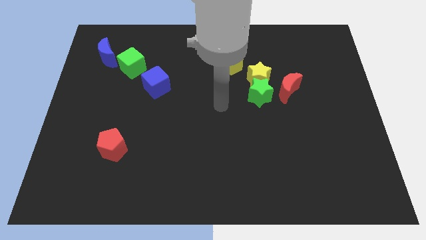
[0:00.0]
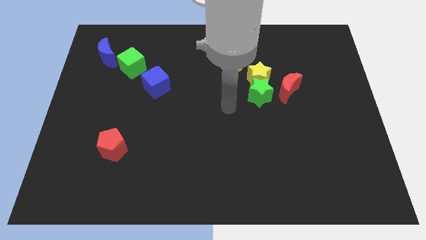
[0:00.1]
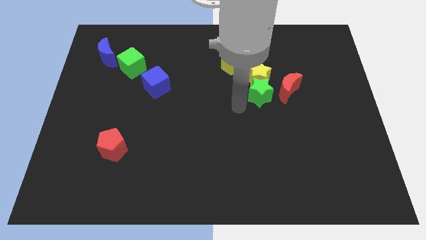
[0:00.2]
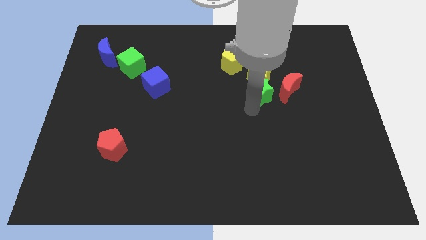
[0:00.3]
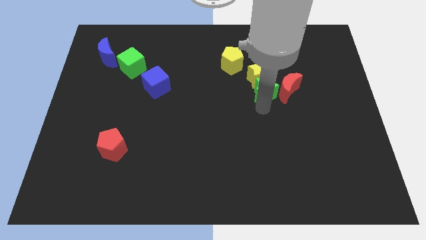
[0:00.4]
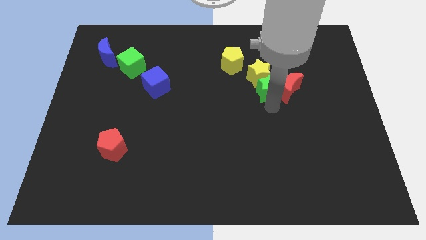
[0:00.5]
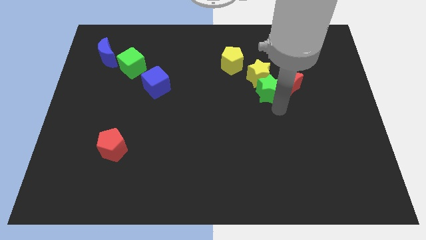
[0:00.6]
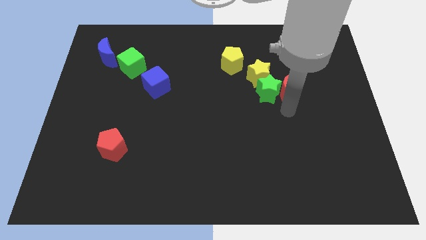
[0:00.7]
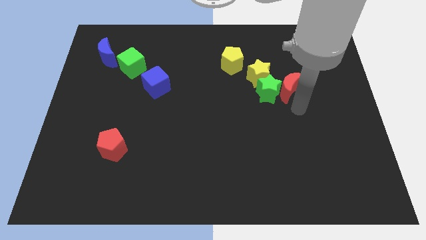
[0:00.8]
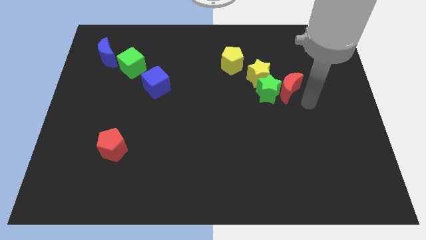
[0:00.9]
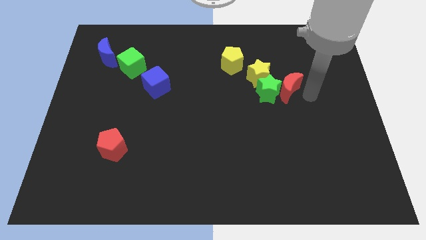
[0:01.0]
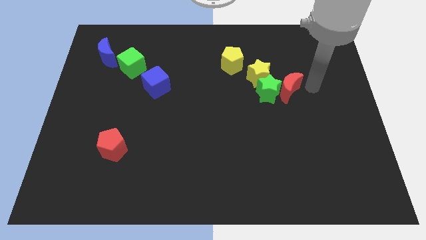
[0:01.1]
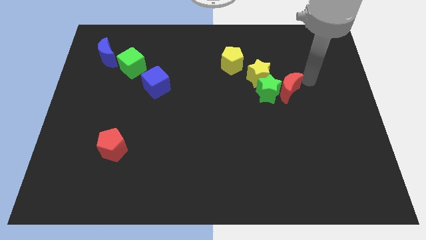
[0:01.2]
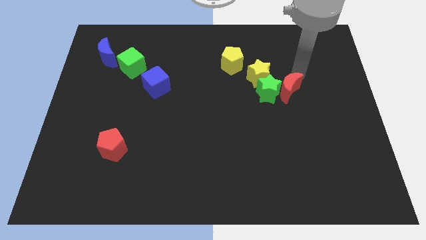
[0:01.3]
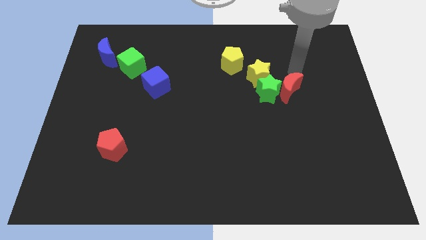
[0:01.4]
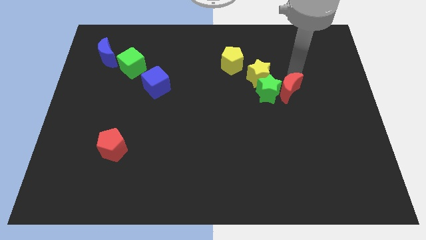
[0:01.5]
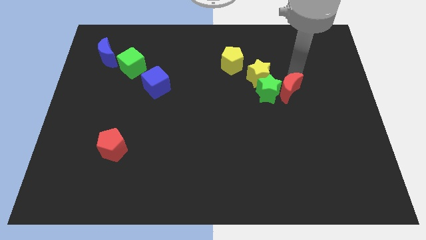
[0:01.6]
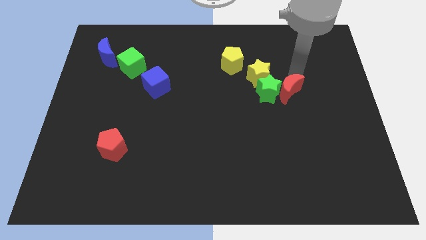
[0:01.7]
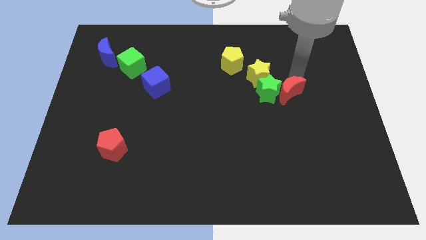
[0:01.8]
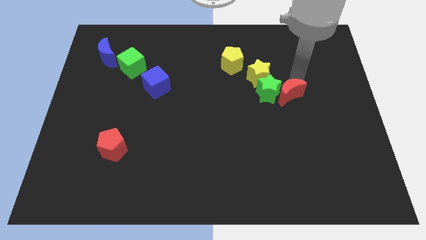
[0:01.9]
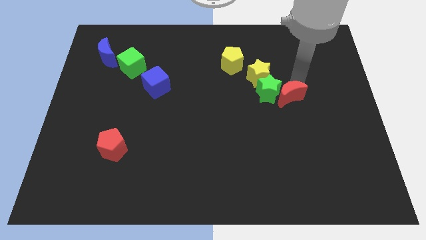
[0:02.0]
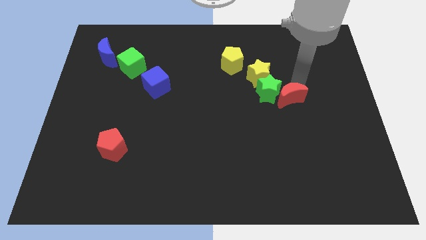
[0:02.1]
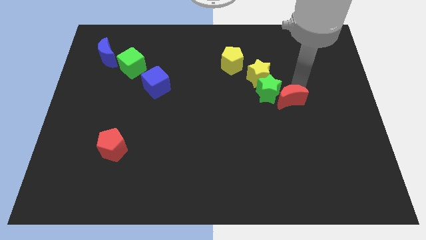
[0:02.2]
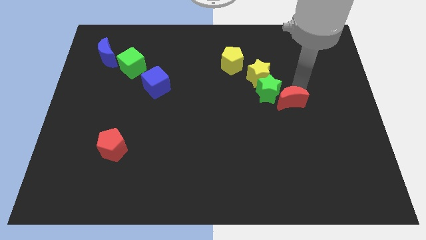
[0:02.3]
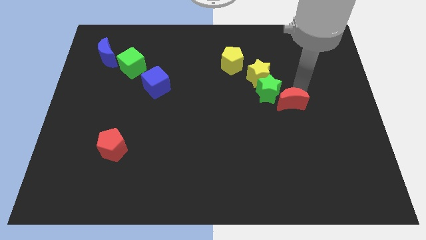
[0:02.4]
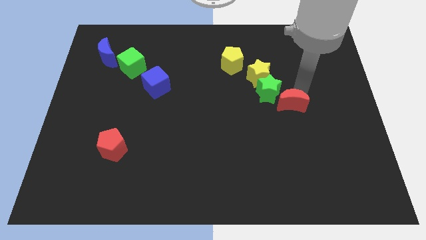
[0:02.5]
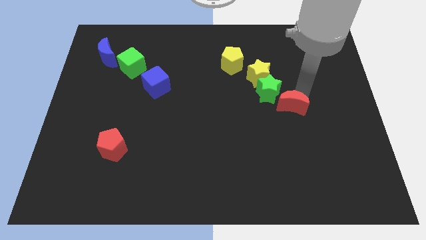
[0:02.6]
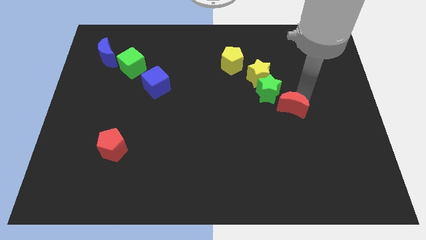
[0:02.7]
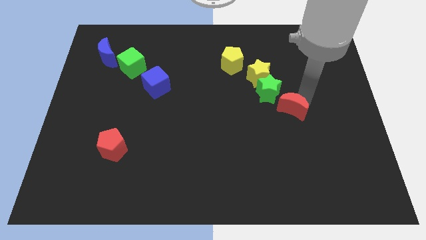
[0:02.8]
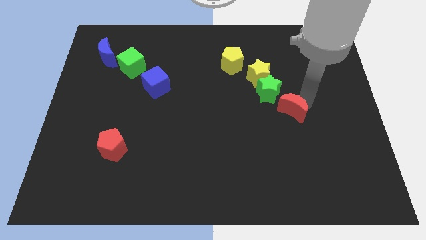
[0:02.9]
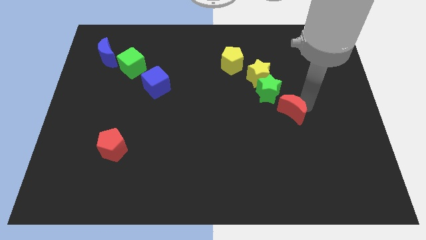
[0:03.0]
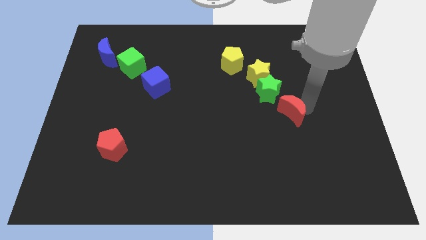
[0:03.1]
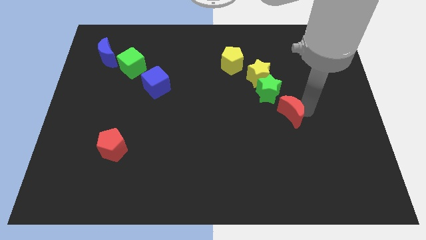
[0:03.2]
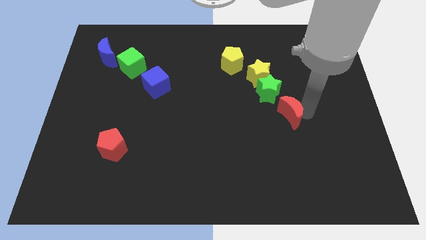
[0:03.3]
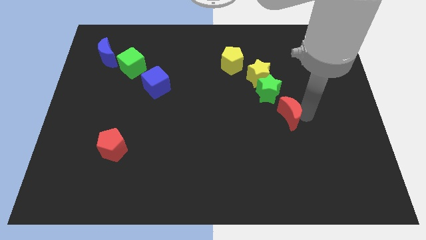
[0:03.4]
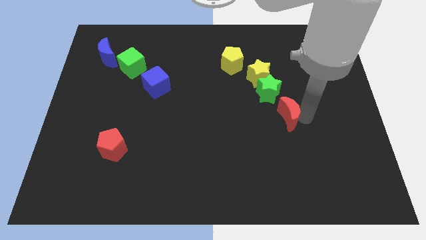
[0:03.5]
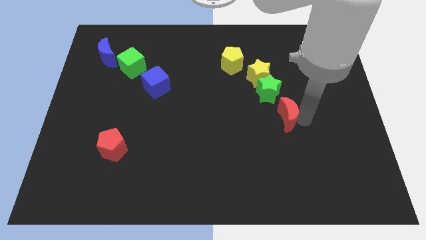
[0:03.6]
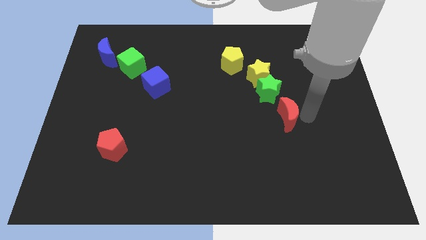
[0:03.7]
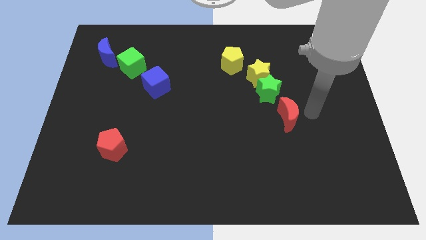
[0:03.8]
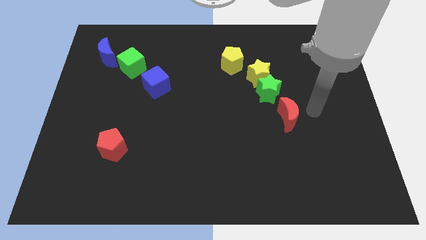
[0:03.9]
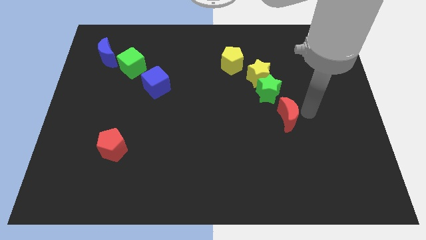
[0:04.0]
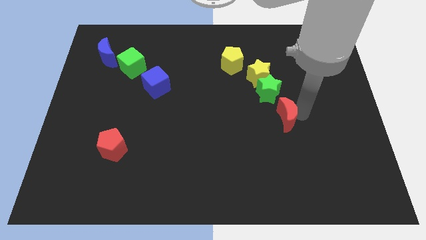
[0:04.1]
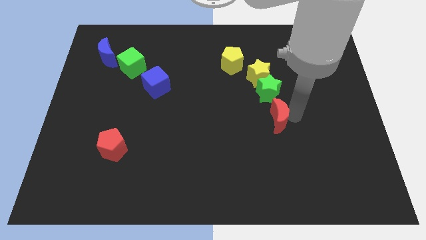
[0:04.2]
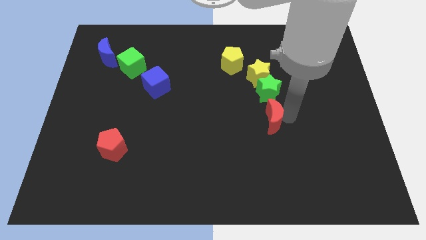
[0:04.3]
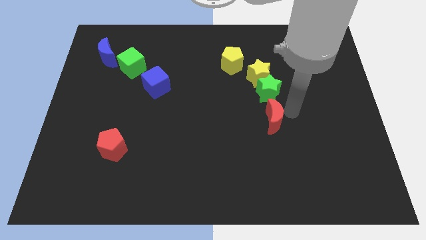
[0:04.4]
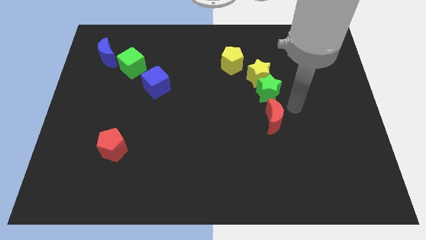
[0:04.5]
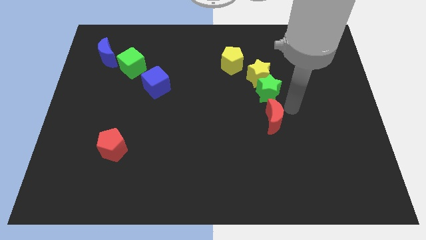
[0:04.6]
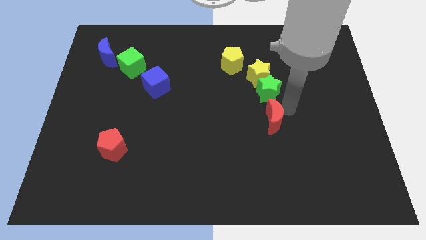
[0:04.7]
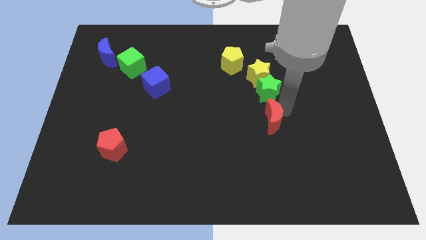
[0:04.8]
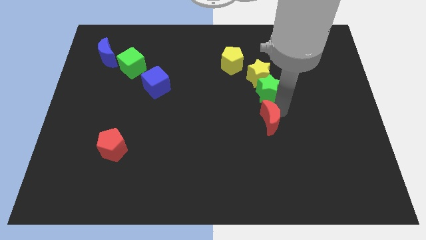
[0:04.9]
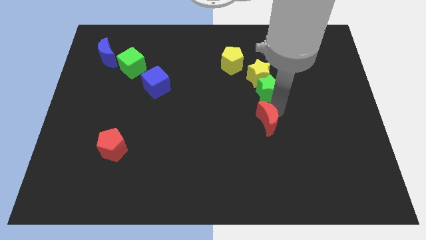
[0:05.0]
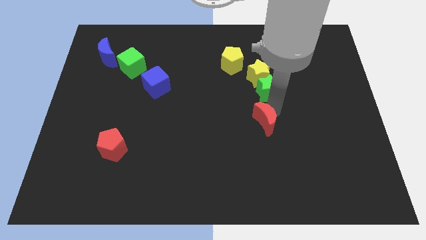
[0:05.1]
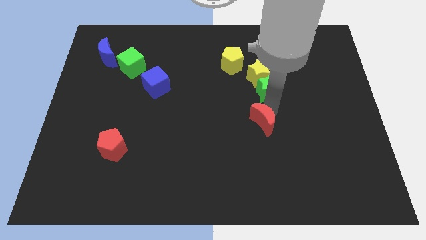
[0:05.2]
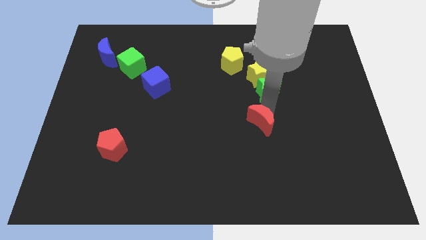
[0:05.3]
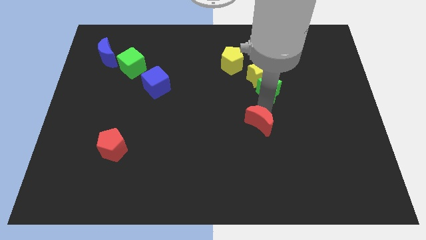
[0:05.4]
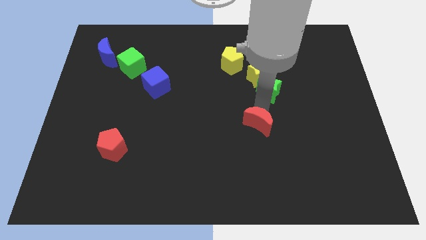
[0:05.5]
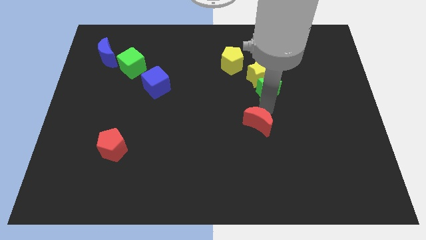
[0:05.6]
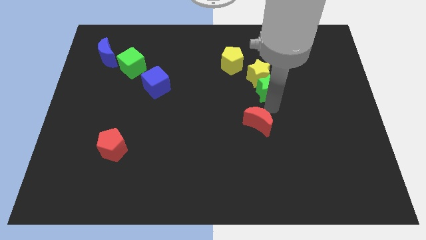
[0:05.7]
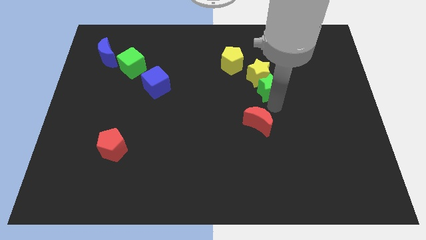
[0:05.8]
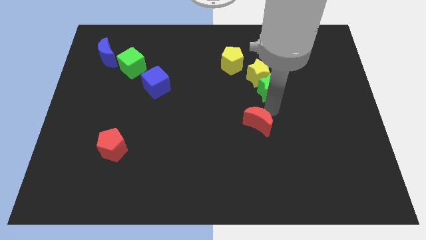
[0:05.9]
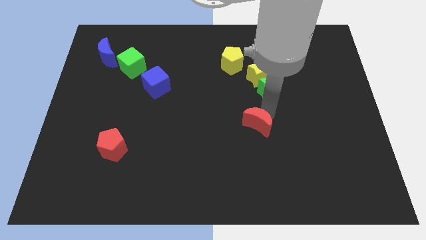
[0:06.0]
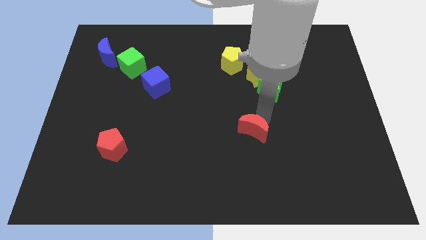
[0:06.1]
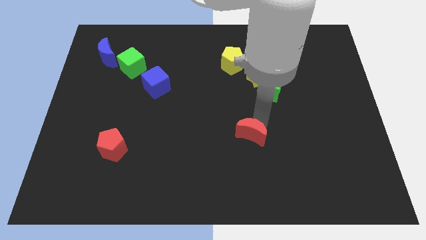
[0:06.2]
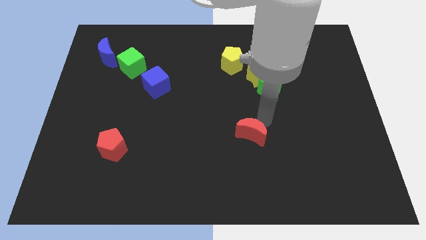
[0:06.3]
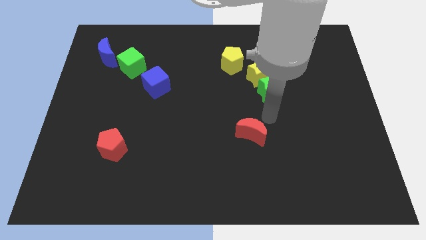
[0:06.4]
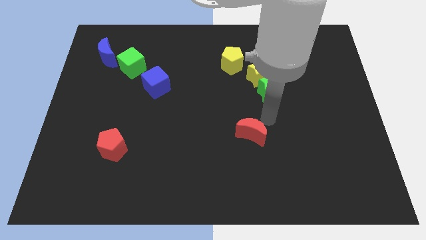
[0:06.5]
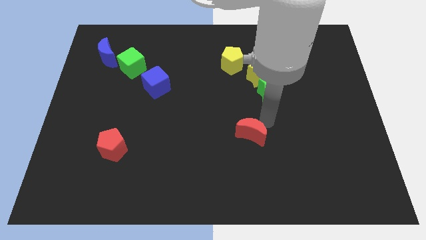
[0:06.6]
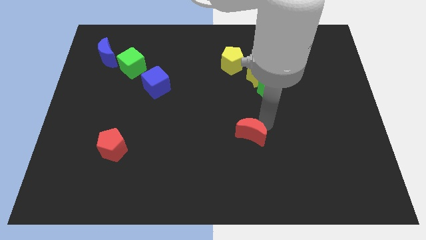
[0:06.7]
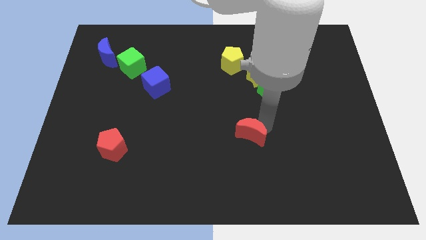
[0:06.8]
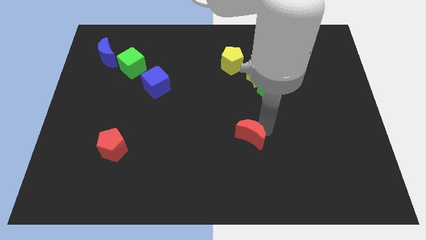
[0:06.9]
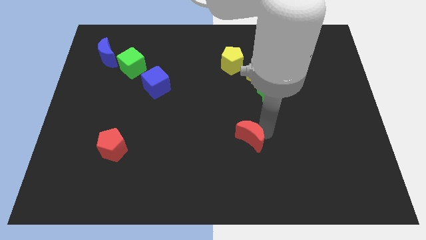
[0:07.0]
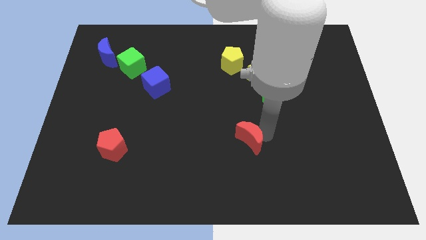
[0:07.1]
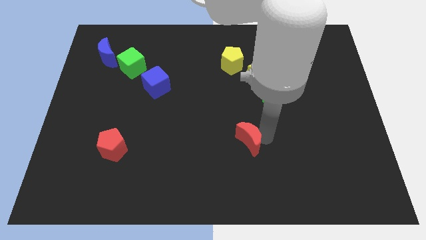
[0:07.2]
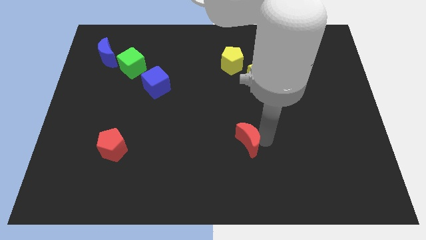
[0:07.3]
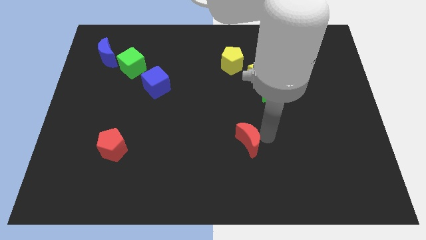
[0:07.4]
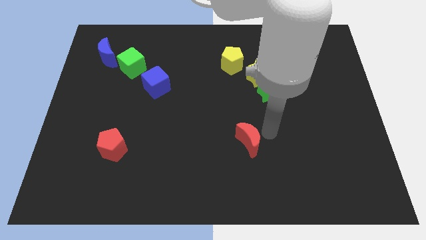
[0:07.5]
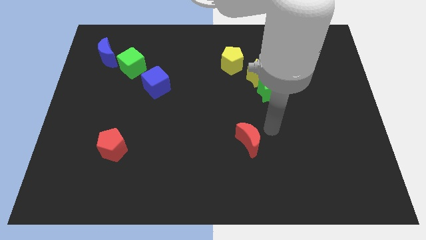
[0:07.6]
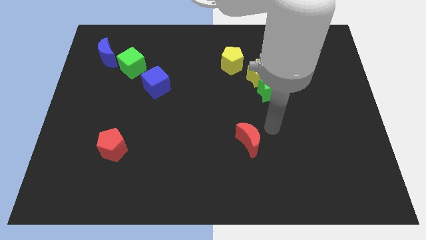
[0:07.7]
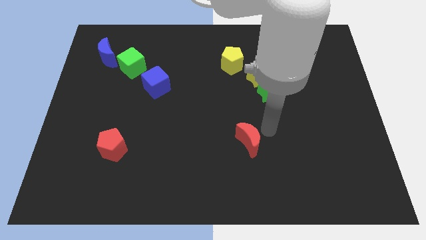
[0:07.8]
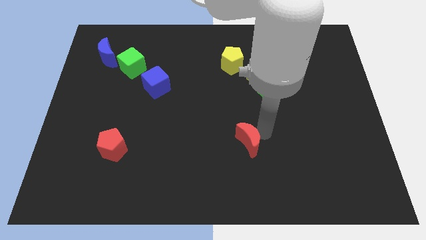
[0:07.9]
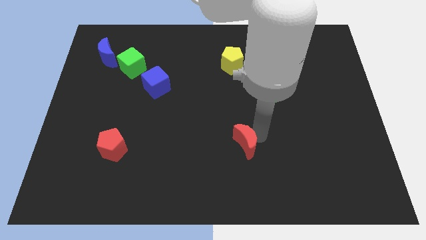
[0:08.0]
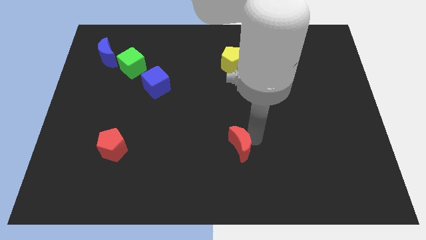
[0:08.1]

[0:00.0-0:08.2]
push the red moon downwards and left diagonally
